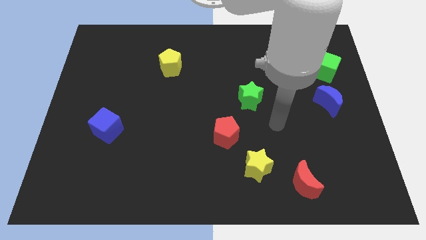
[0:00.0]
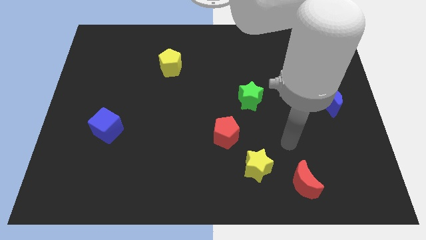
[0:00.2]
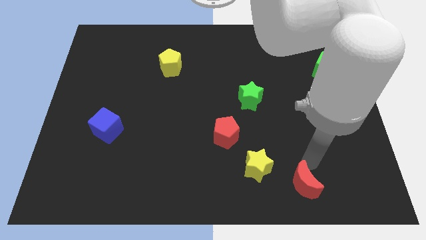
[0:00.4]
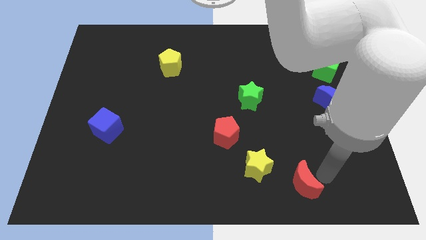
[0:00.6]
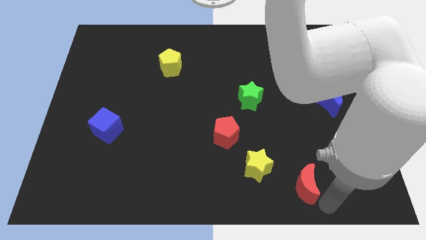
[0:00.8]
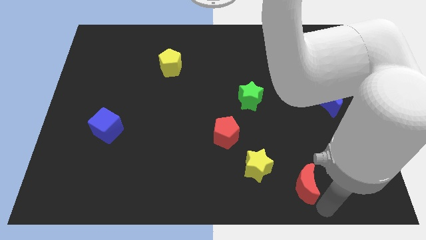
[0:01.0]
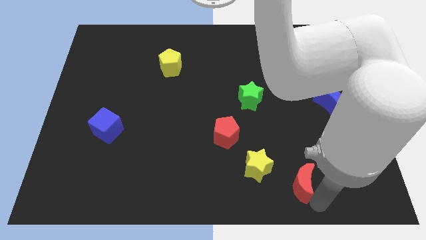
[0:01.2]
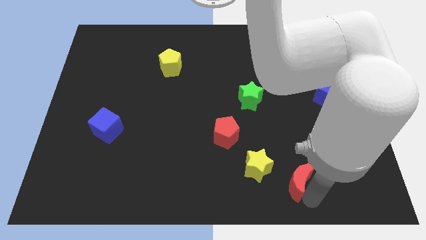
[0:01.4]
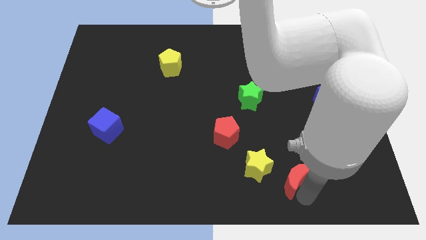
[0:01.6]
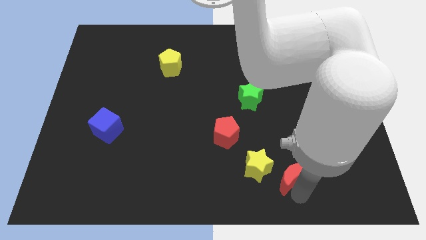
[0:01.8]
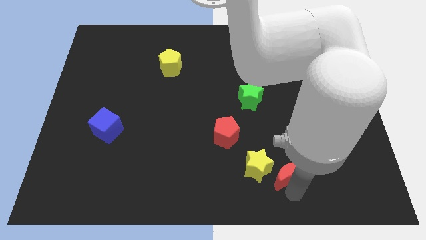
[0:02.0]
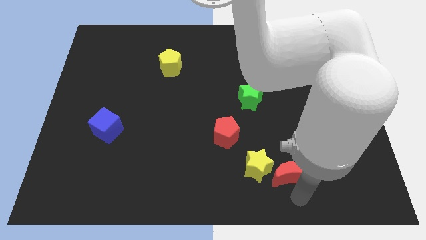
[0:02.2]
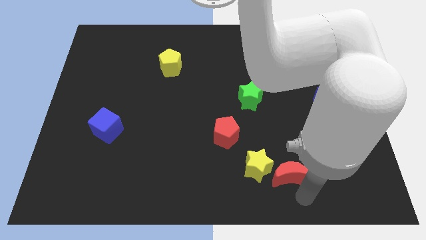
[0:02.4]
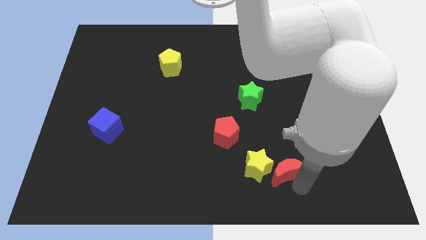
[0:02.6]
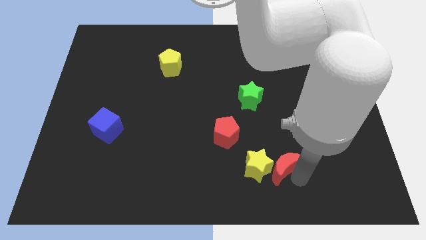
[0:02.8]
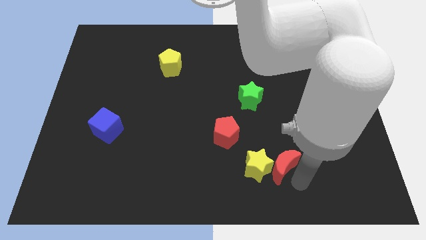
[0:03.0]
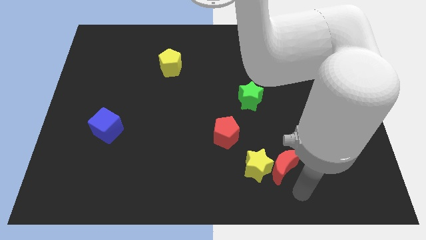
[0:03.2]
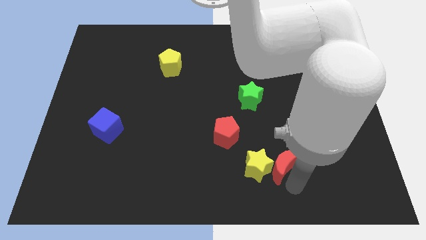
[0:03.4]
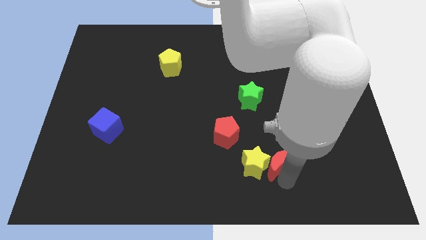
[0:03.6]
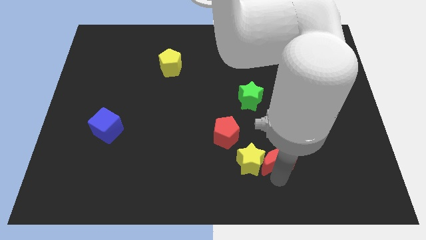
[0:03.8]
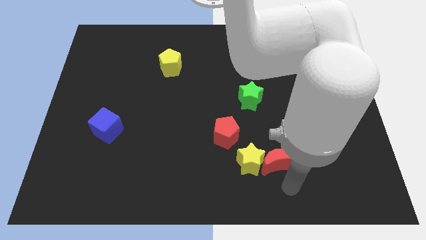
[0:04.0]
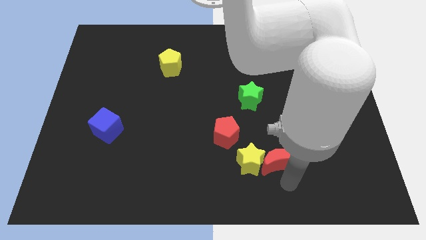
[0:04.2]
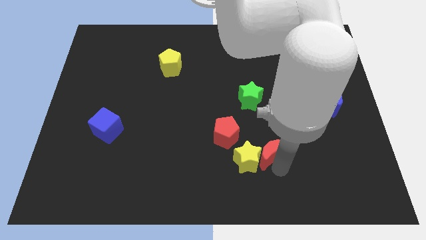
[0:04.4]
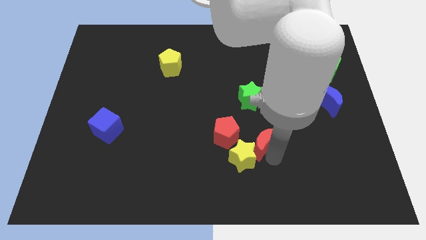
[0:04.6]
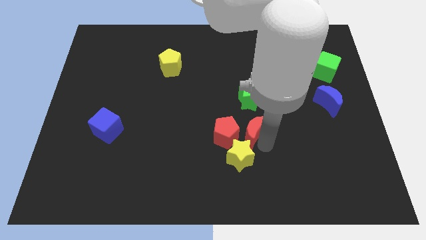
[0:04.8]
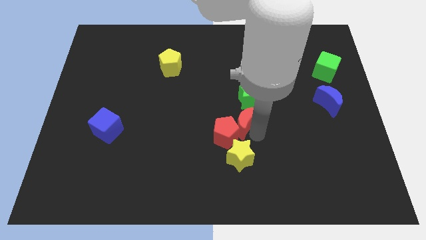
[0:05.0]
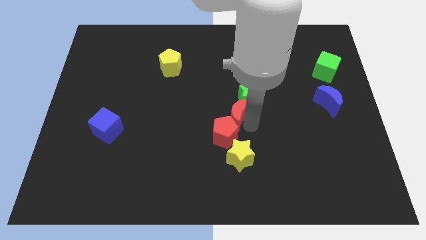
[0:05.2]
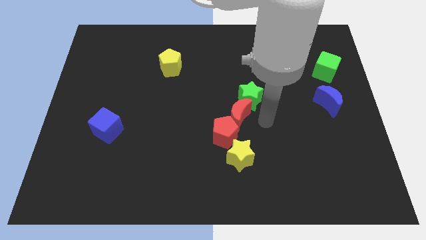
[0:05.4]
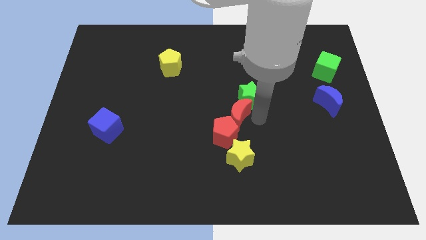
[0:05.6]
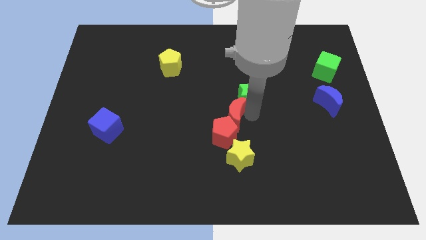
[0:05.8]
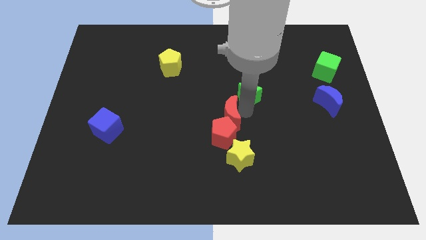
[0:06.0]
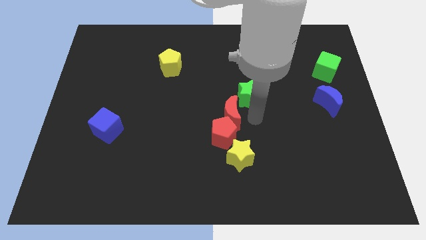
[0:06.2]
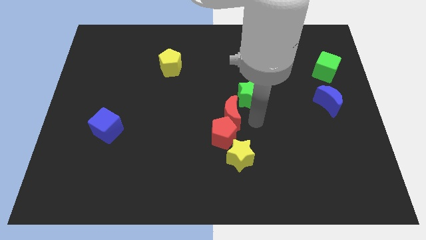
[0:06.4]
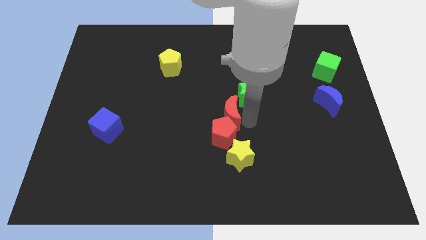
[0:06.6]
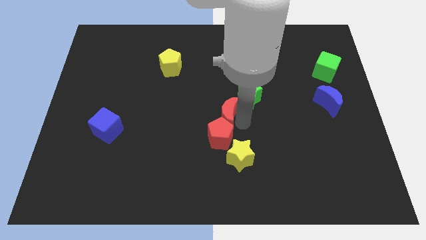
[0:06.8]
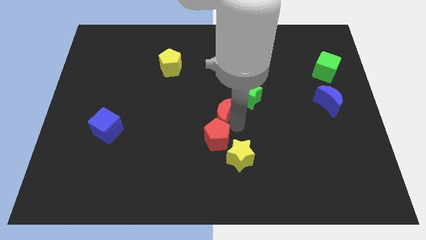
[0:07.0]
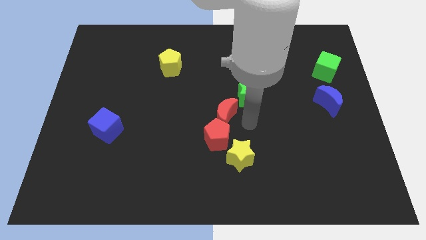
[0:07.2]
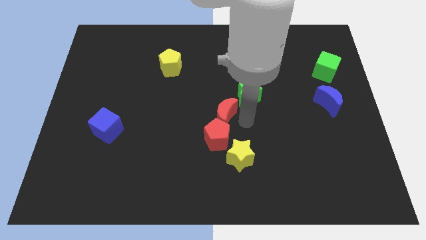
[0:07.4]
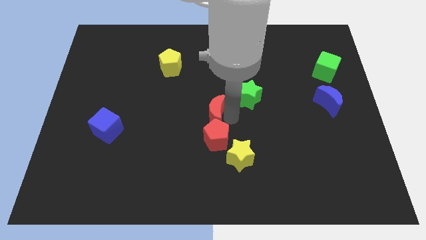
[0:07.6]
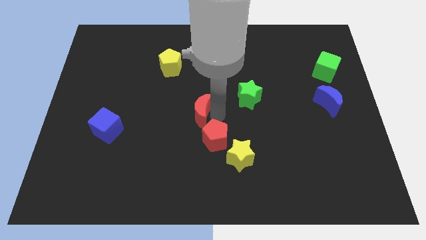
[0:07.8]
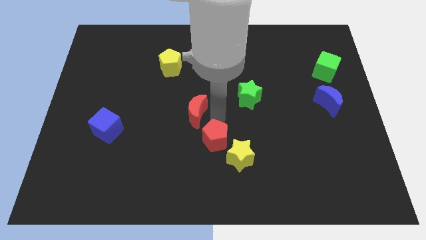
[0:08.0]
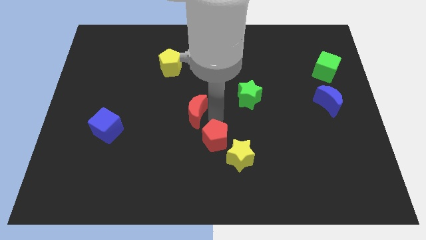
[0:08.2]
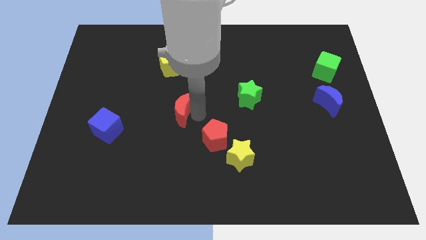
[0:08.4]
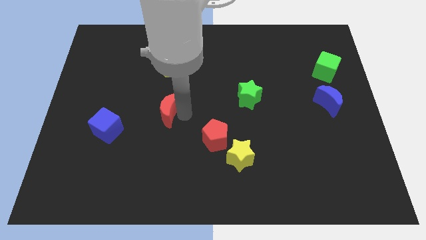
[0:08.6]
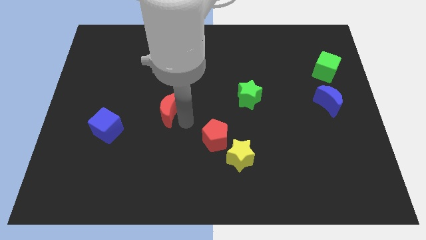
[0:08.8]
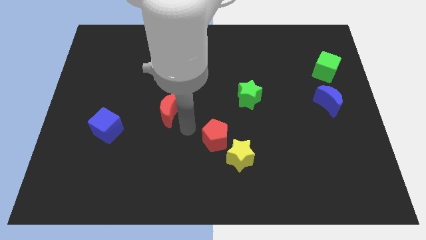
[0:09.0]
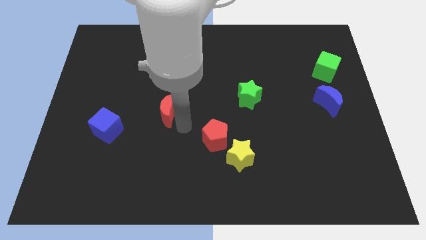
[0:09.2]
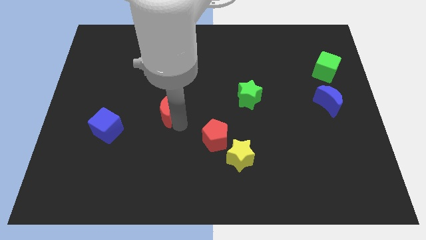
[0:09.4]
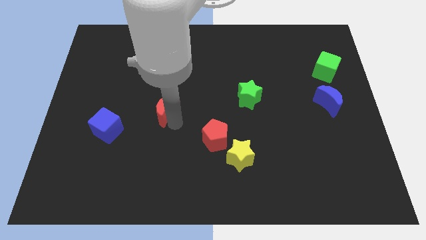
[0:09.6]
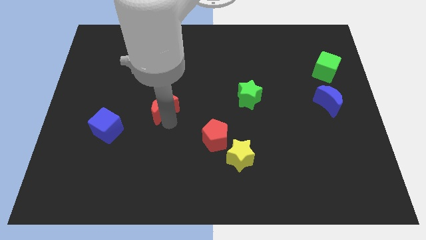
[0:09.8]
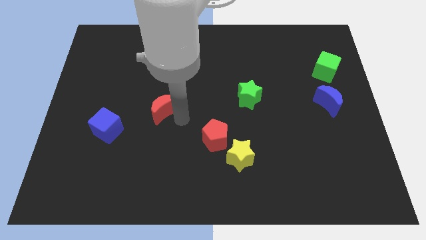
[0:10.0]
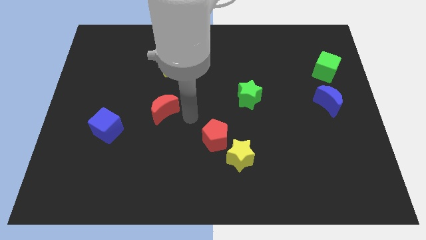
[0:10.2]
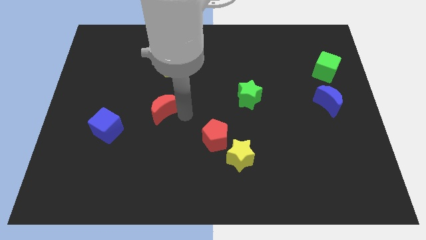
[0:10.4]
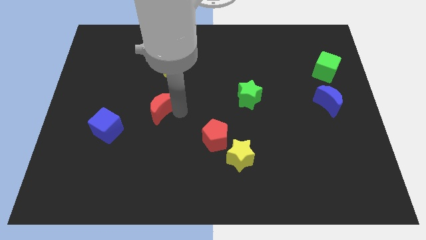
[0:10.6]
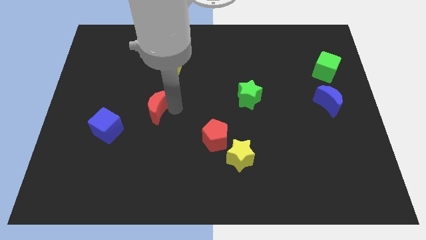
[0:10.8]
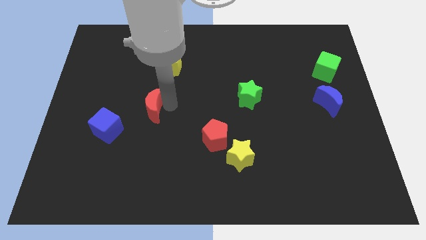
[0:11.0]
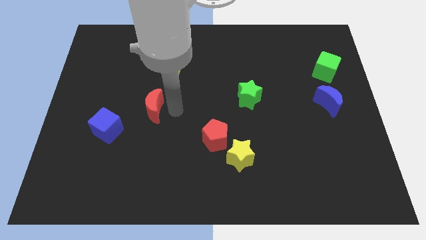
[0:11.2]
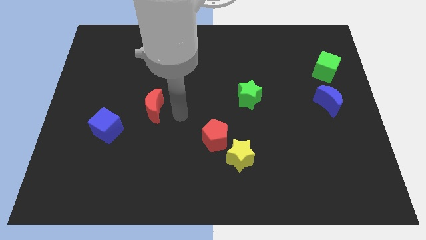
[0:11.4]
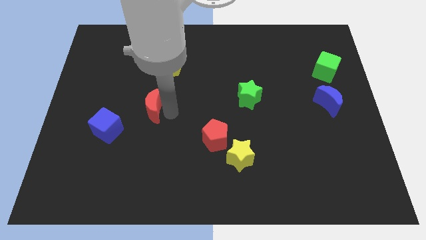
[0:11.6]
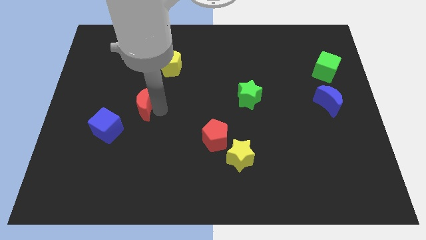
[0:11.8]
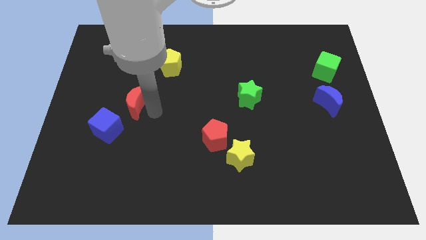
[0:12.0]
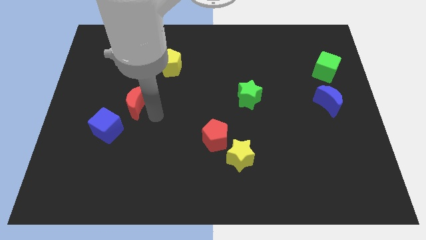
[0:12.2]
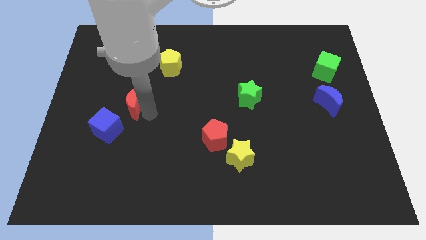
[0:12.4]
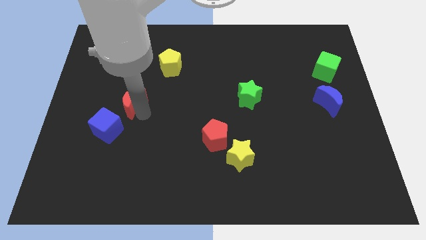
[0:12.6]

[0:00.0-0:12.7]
push the red moon above the blue cube

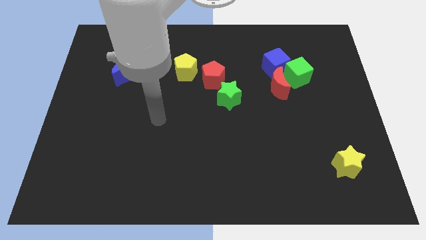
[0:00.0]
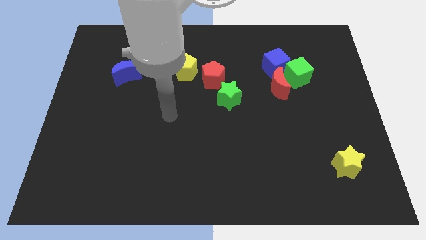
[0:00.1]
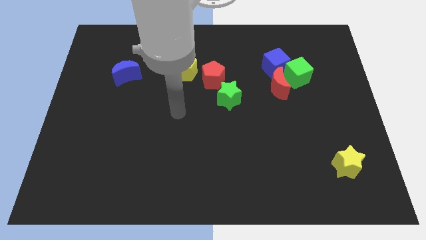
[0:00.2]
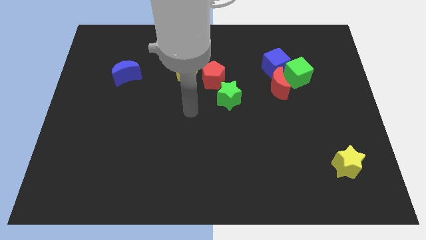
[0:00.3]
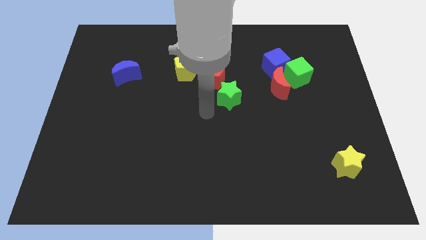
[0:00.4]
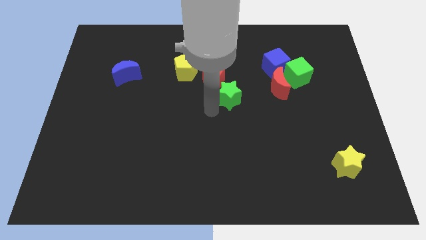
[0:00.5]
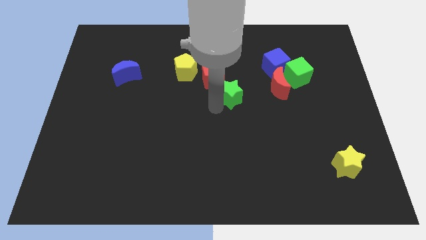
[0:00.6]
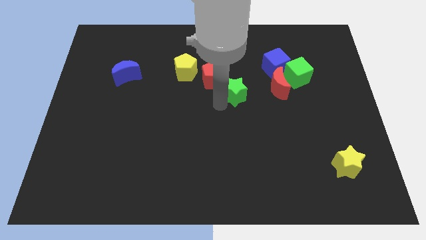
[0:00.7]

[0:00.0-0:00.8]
push the green star to the right of the red pentagon
